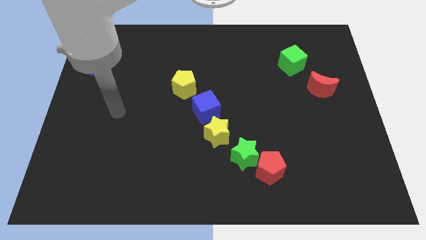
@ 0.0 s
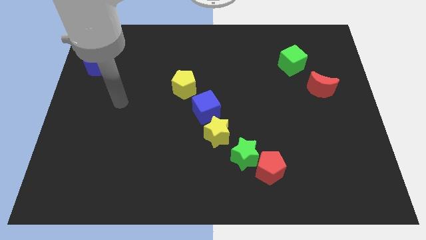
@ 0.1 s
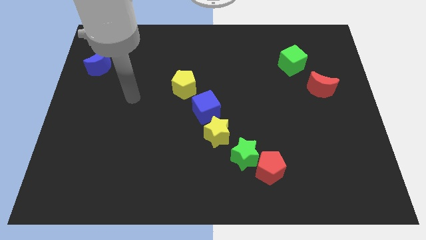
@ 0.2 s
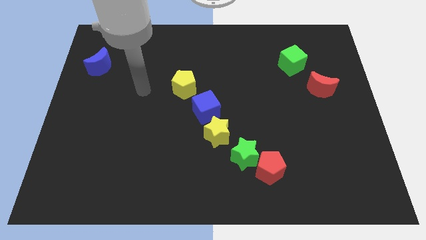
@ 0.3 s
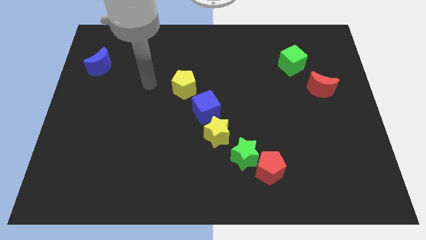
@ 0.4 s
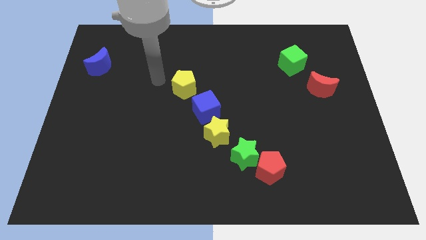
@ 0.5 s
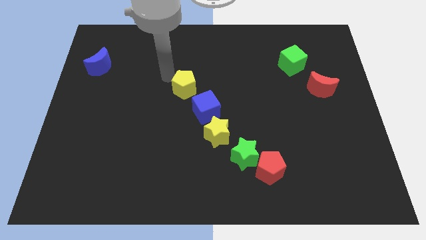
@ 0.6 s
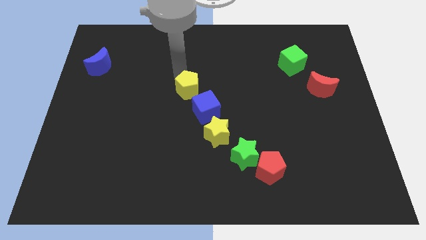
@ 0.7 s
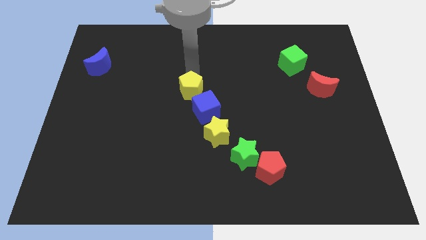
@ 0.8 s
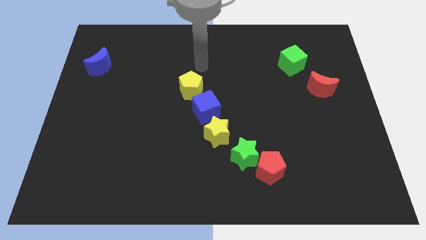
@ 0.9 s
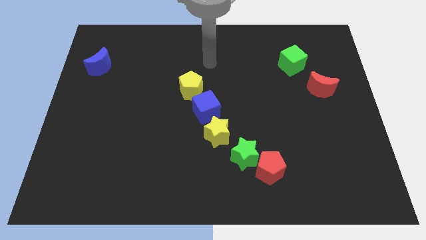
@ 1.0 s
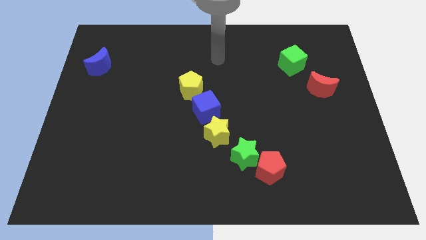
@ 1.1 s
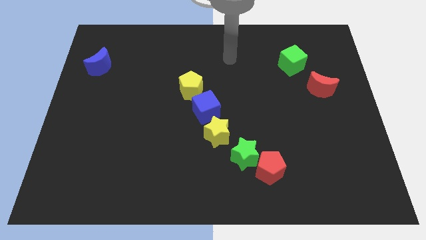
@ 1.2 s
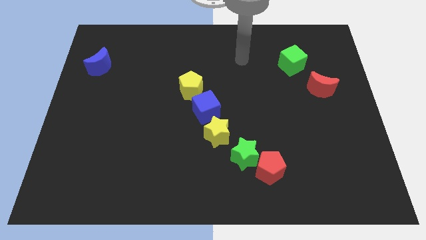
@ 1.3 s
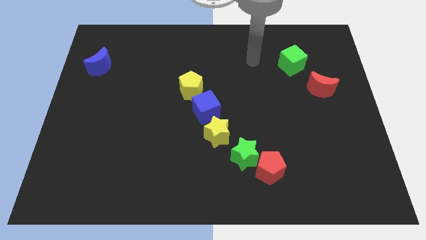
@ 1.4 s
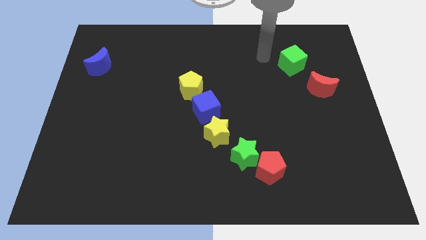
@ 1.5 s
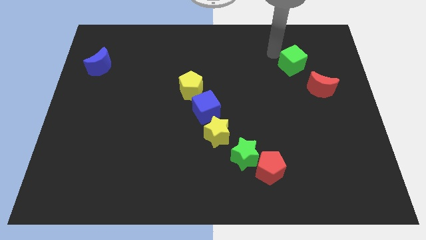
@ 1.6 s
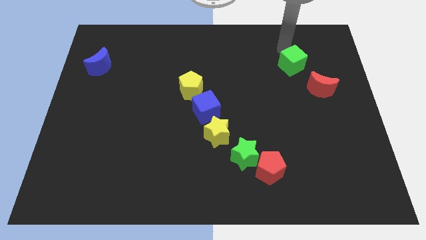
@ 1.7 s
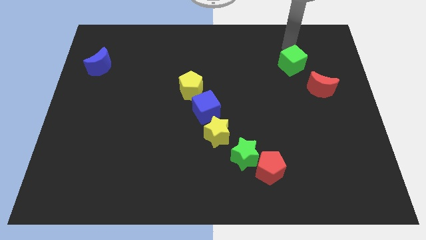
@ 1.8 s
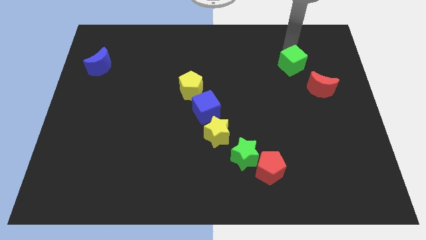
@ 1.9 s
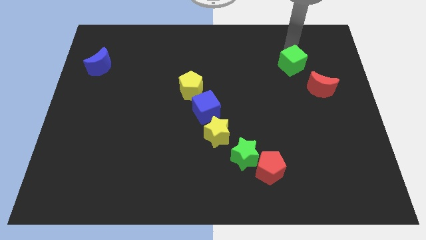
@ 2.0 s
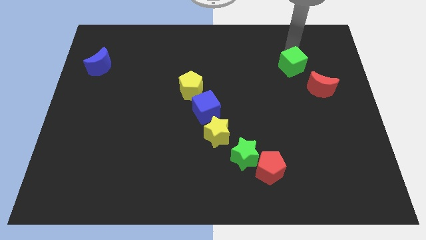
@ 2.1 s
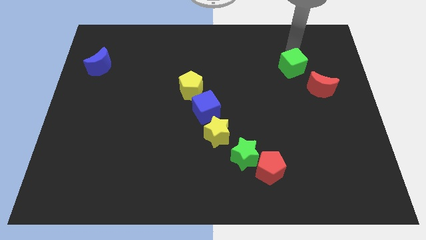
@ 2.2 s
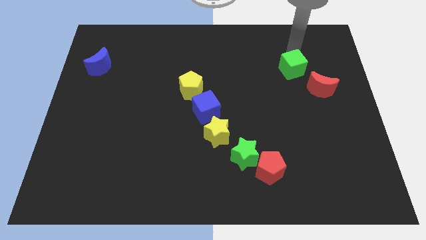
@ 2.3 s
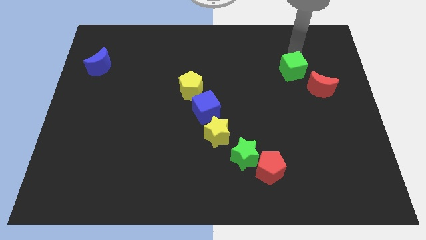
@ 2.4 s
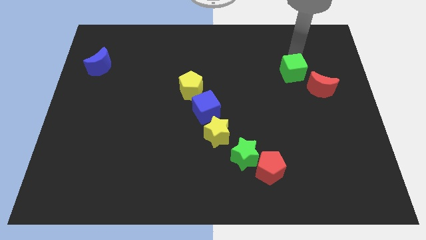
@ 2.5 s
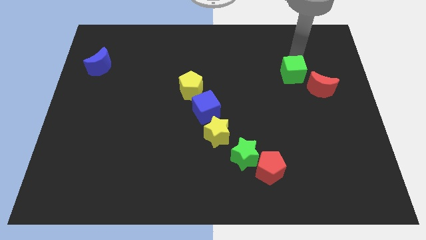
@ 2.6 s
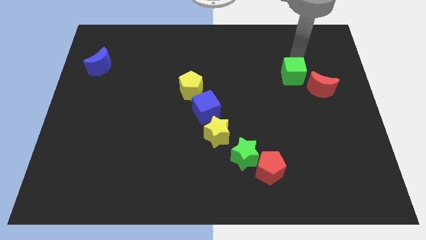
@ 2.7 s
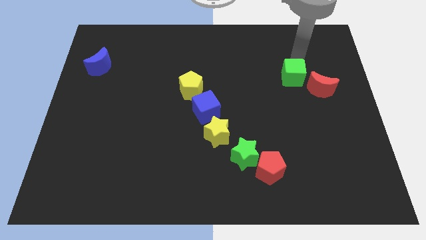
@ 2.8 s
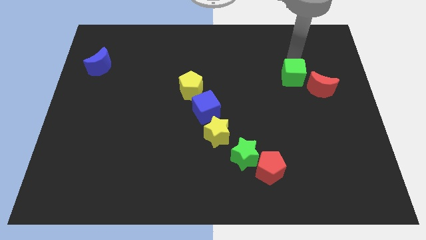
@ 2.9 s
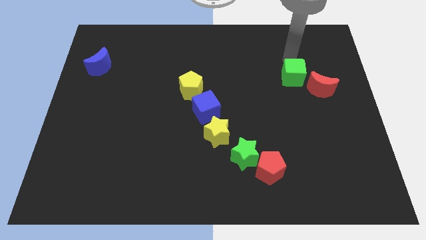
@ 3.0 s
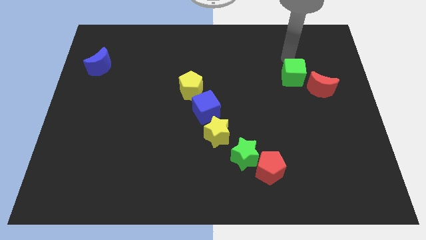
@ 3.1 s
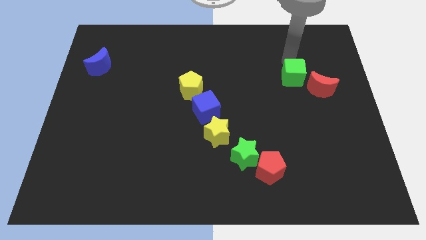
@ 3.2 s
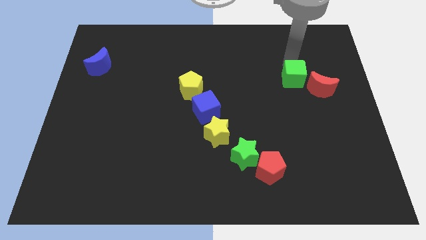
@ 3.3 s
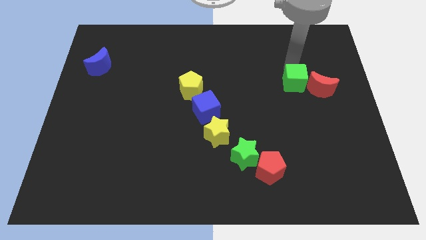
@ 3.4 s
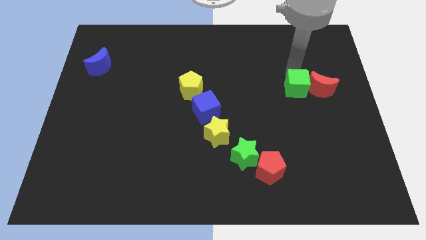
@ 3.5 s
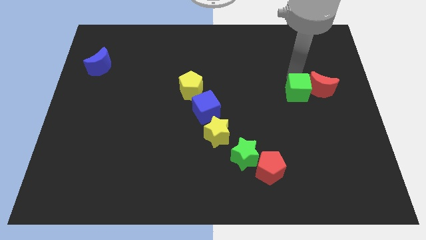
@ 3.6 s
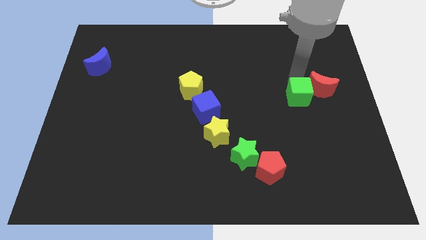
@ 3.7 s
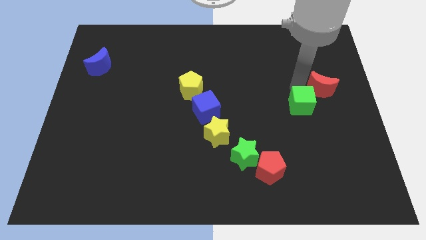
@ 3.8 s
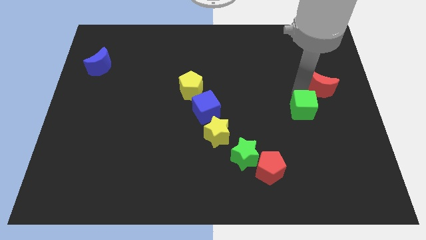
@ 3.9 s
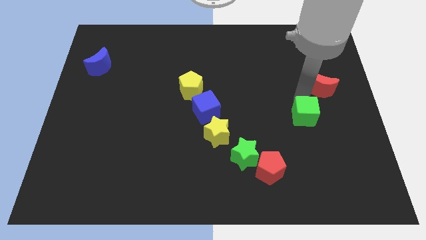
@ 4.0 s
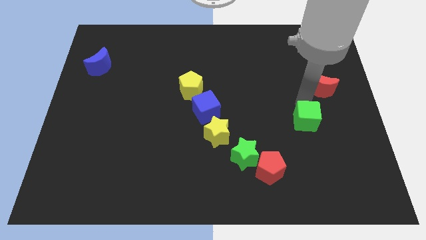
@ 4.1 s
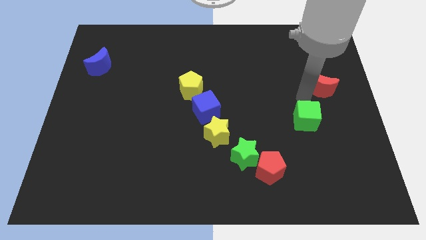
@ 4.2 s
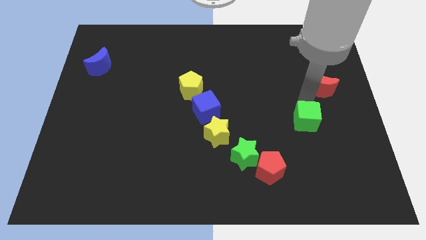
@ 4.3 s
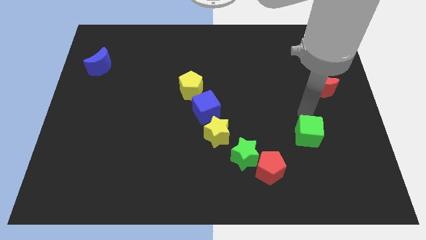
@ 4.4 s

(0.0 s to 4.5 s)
push the green cube down

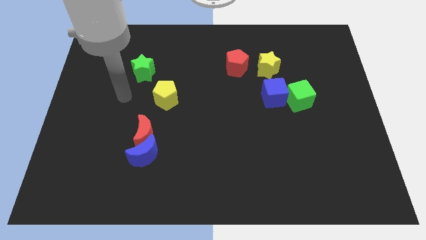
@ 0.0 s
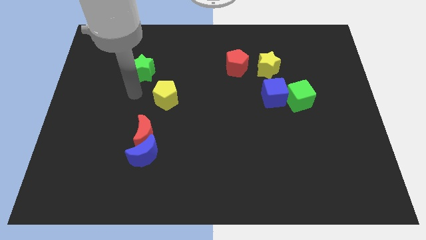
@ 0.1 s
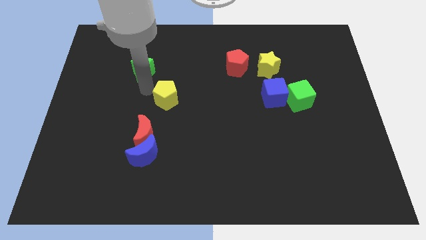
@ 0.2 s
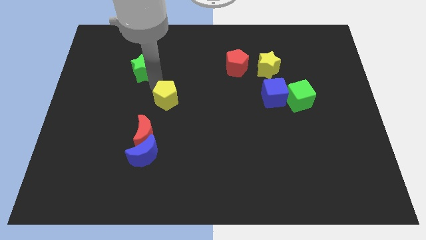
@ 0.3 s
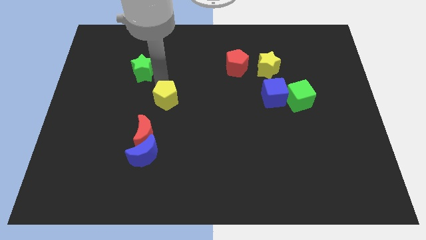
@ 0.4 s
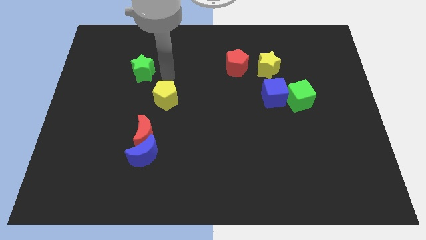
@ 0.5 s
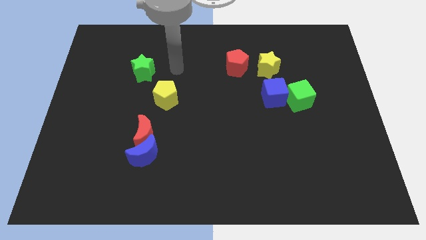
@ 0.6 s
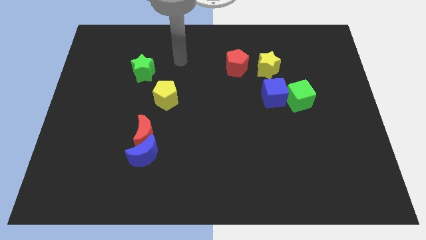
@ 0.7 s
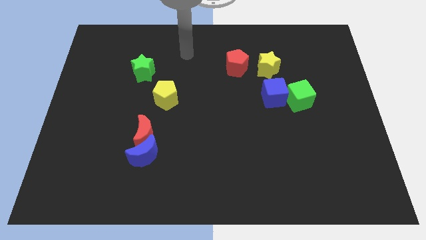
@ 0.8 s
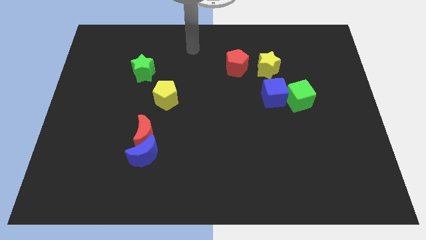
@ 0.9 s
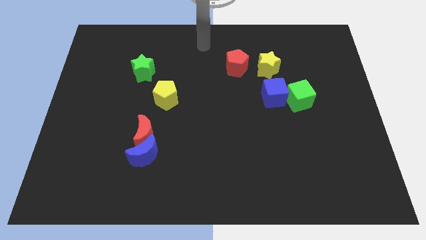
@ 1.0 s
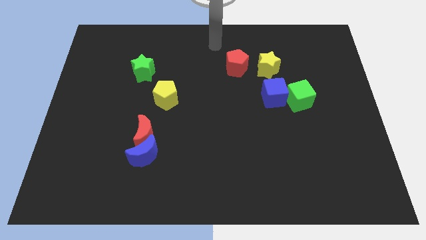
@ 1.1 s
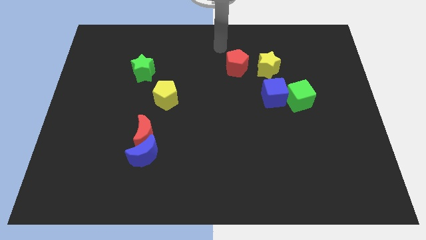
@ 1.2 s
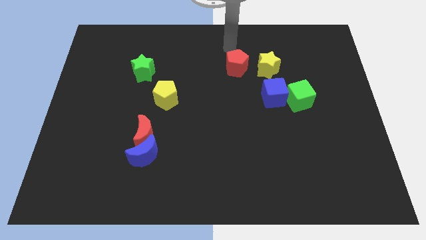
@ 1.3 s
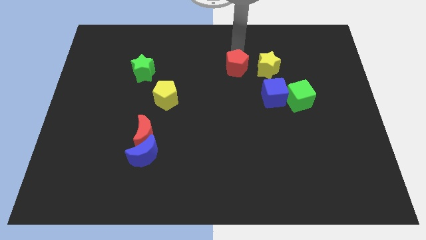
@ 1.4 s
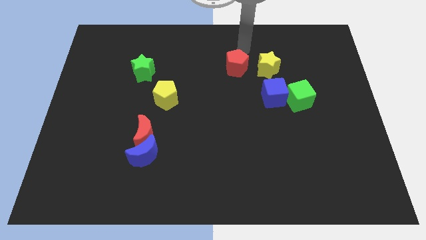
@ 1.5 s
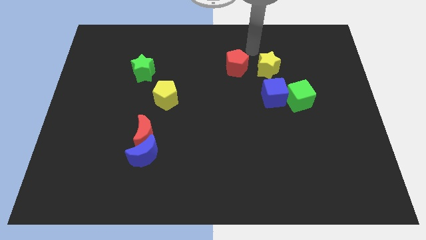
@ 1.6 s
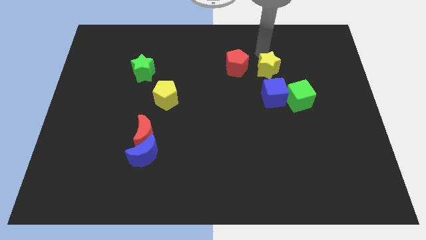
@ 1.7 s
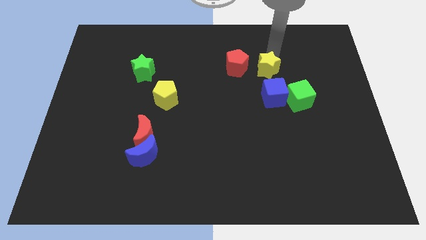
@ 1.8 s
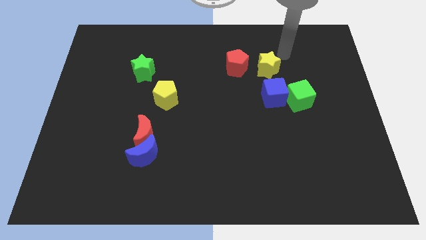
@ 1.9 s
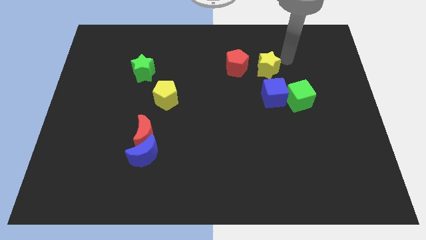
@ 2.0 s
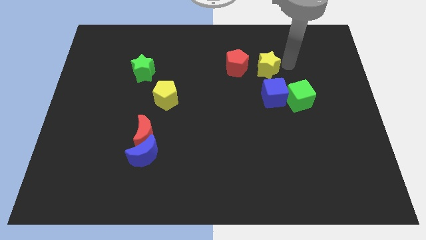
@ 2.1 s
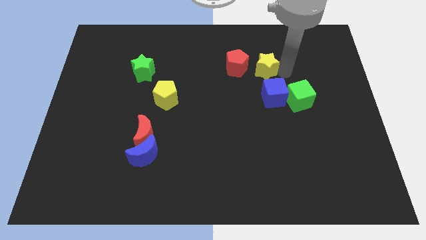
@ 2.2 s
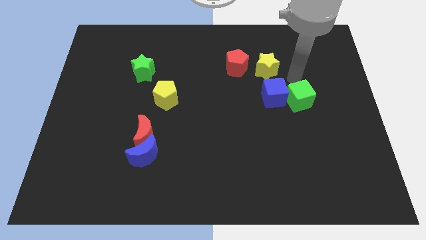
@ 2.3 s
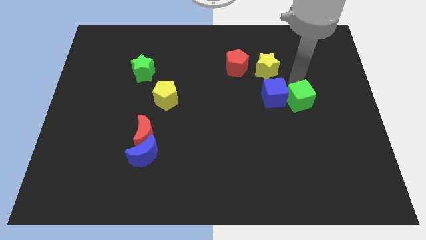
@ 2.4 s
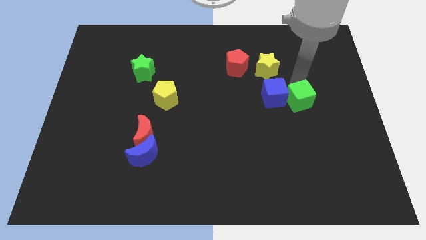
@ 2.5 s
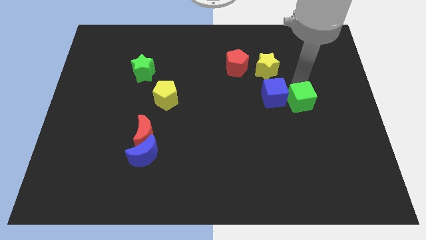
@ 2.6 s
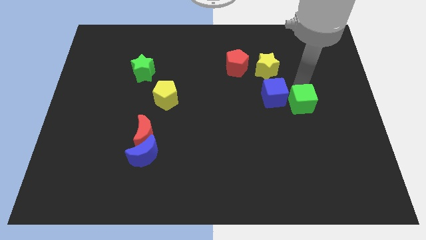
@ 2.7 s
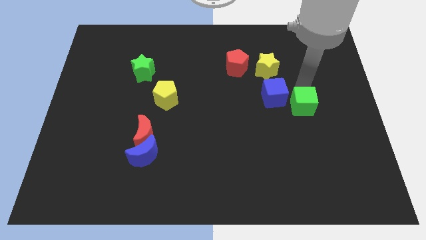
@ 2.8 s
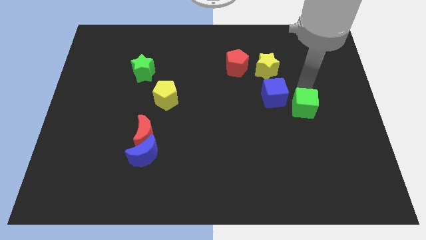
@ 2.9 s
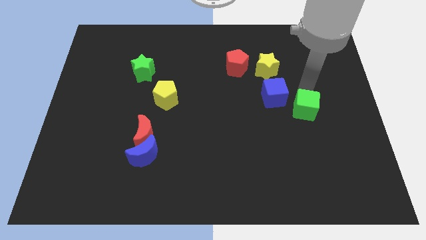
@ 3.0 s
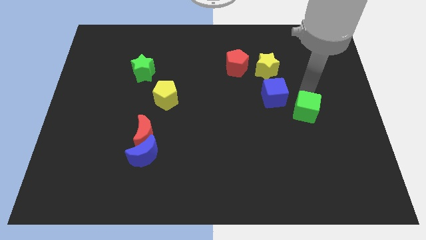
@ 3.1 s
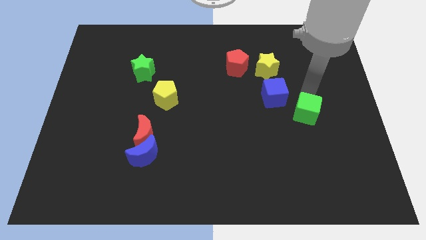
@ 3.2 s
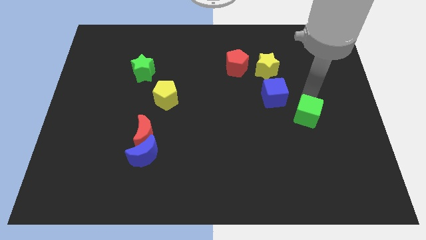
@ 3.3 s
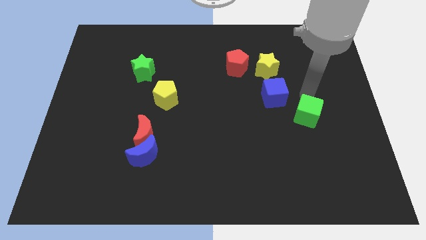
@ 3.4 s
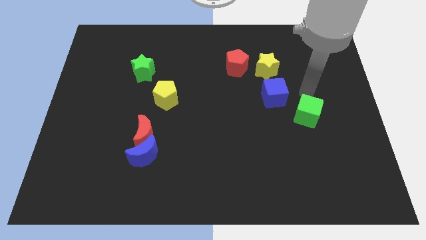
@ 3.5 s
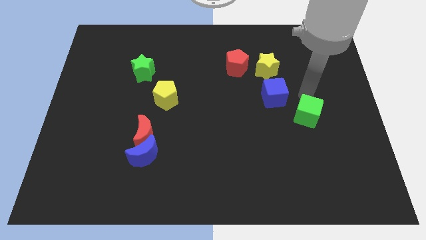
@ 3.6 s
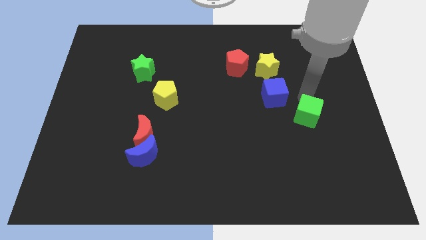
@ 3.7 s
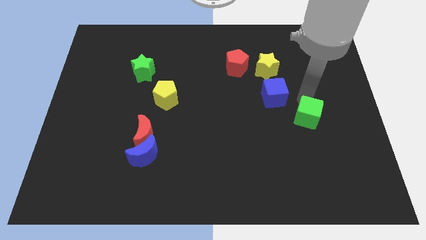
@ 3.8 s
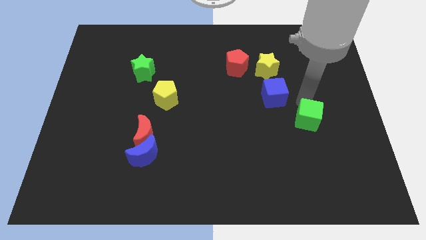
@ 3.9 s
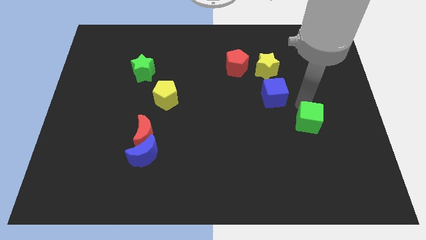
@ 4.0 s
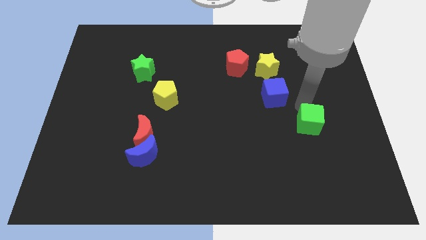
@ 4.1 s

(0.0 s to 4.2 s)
slightly move the green cube down
